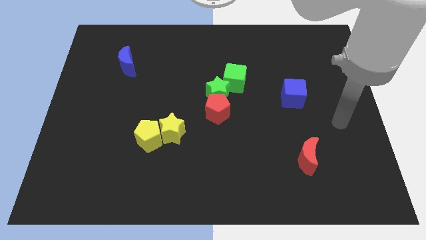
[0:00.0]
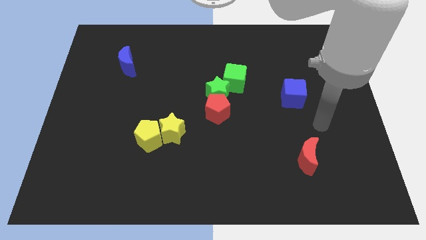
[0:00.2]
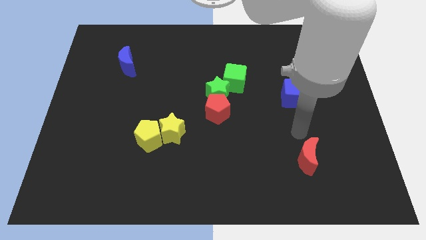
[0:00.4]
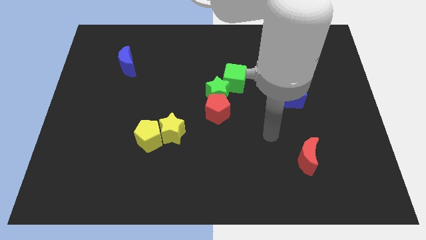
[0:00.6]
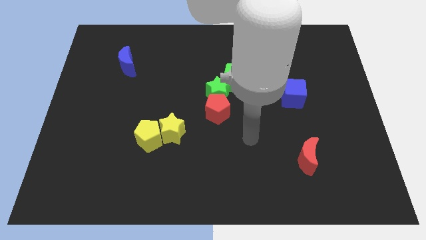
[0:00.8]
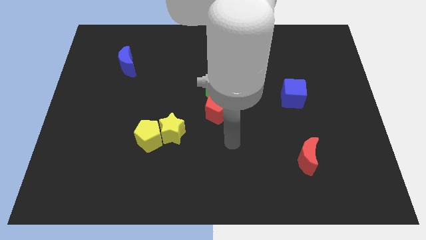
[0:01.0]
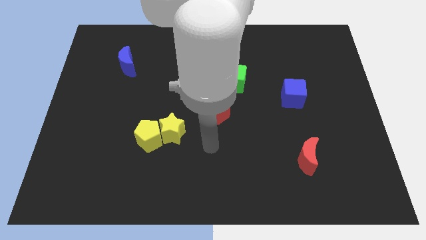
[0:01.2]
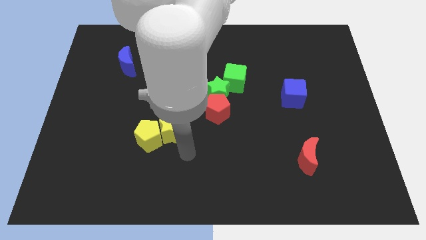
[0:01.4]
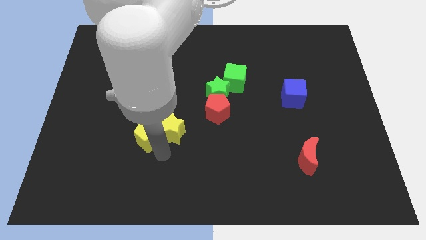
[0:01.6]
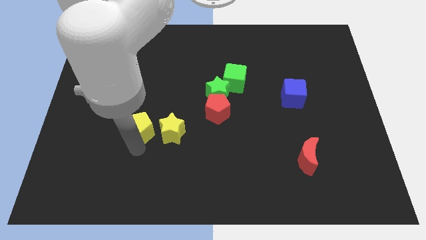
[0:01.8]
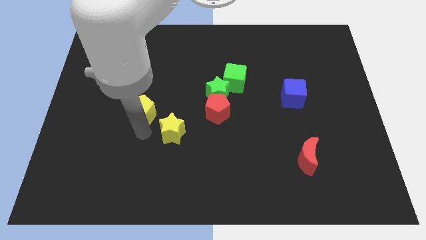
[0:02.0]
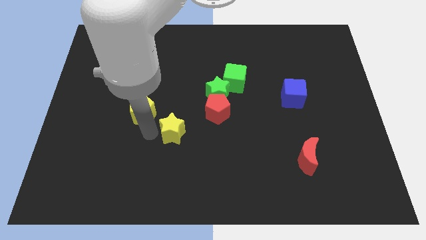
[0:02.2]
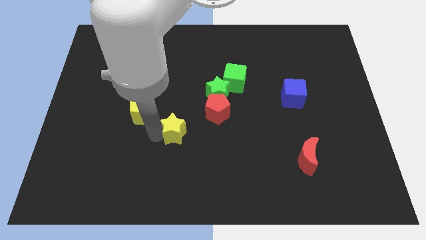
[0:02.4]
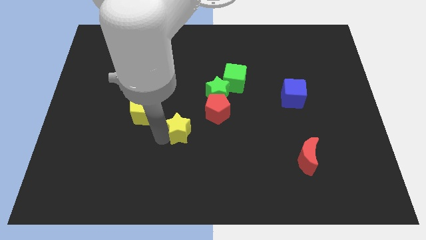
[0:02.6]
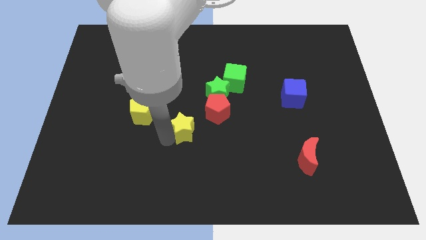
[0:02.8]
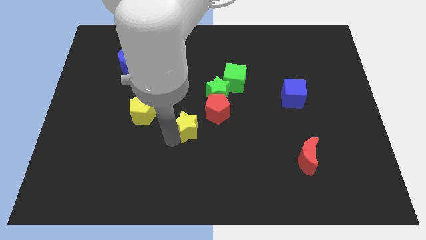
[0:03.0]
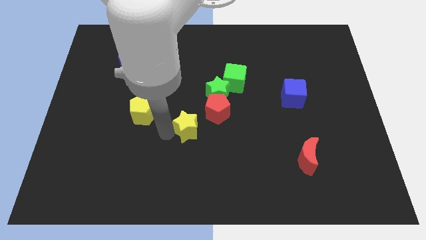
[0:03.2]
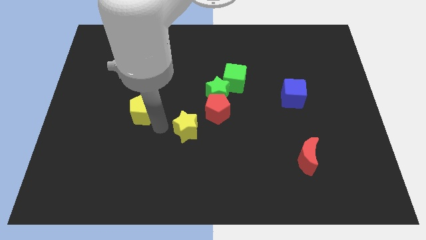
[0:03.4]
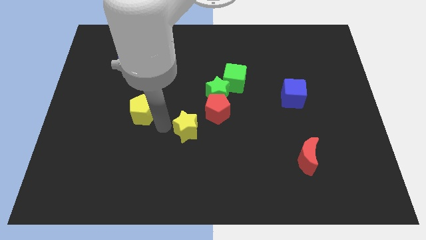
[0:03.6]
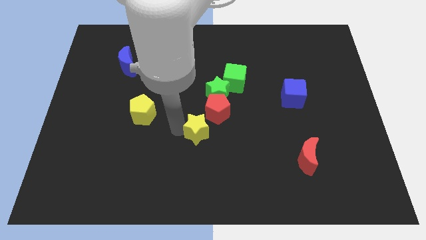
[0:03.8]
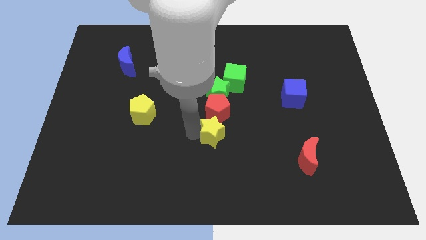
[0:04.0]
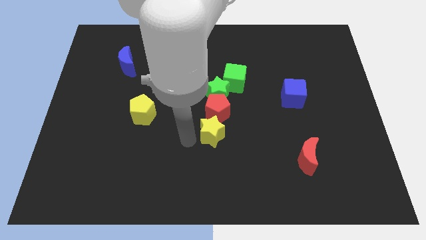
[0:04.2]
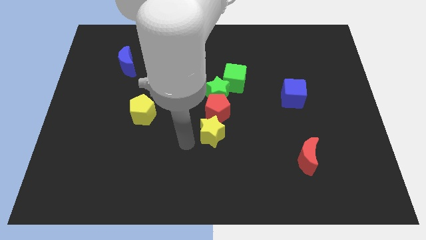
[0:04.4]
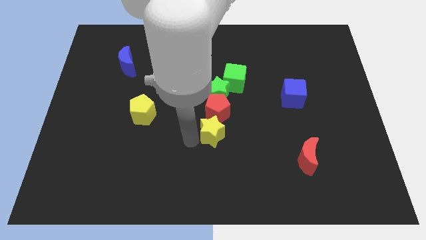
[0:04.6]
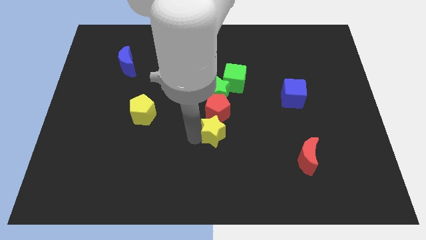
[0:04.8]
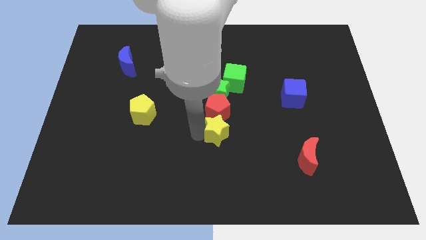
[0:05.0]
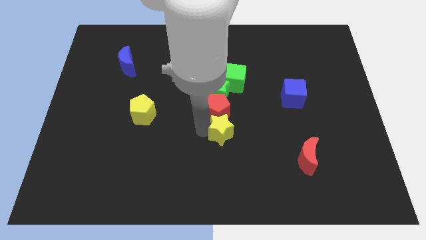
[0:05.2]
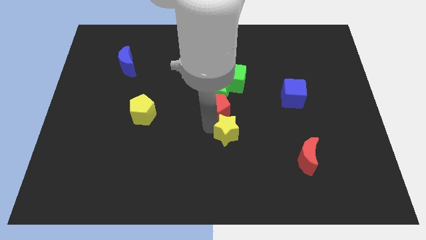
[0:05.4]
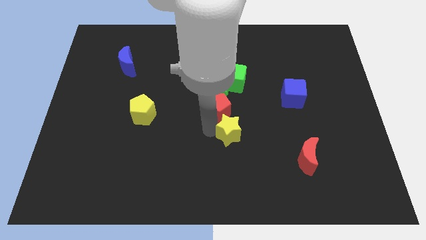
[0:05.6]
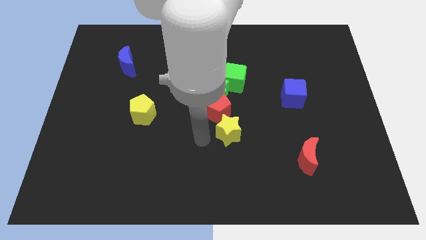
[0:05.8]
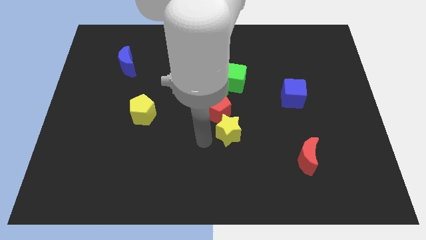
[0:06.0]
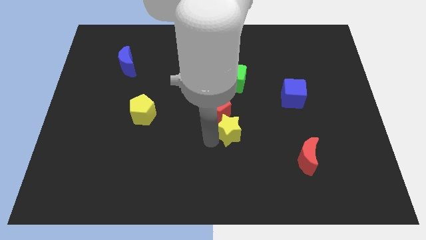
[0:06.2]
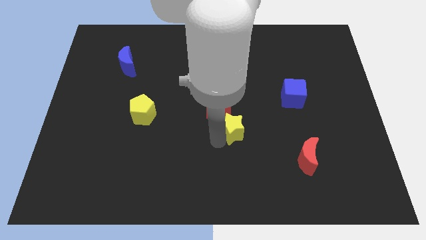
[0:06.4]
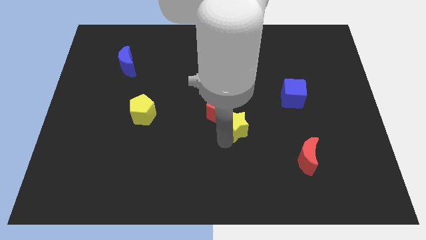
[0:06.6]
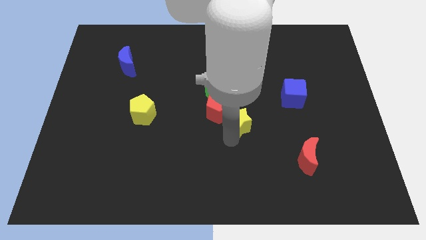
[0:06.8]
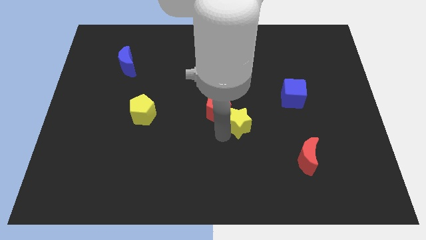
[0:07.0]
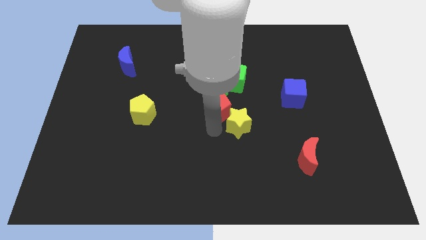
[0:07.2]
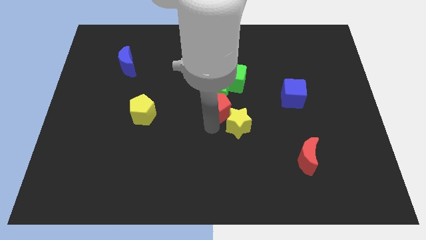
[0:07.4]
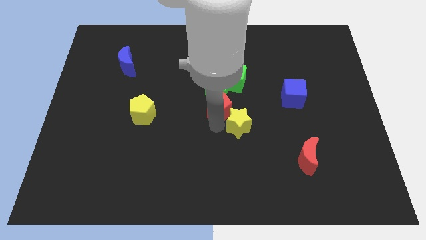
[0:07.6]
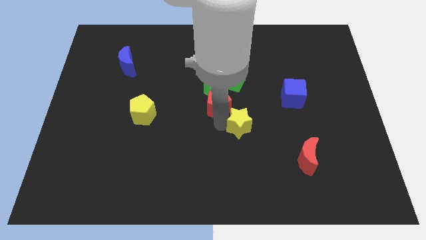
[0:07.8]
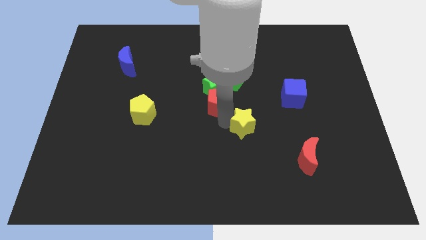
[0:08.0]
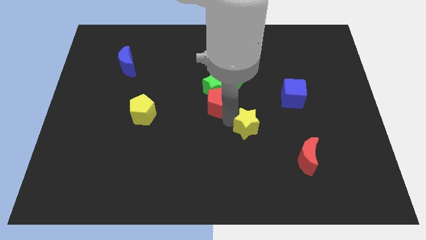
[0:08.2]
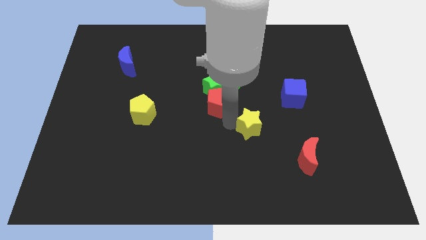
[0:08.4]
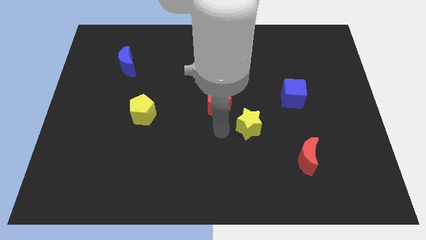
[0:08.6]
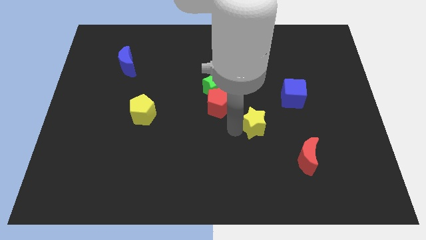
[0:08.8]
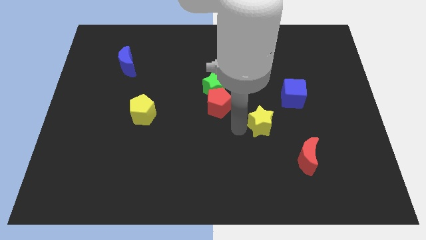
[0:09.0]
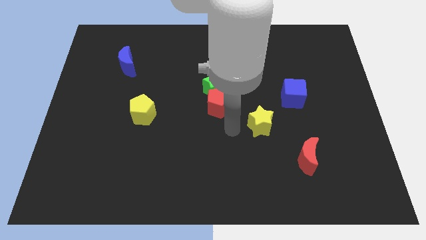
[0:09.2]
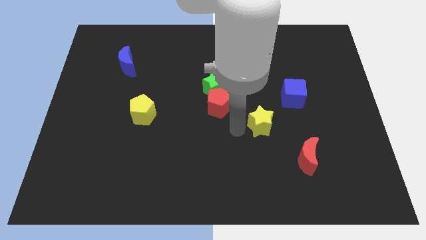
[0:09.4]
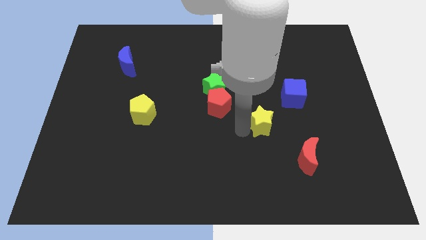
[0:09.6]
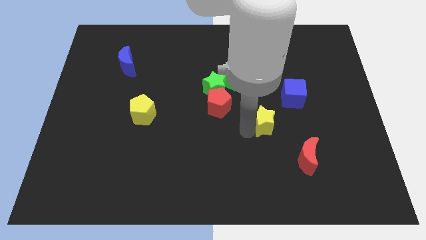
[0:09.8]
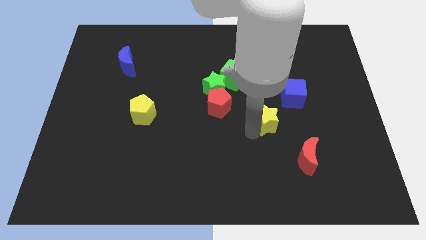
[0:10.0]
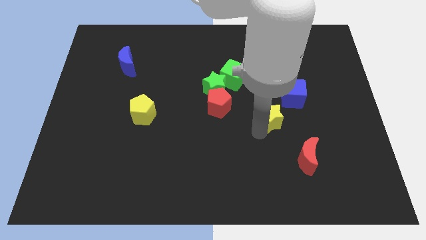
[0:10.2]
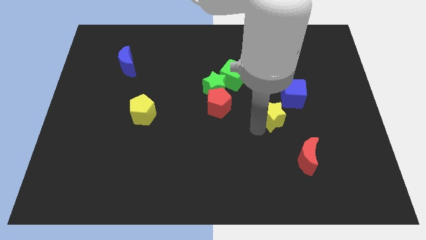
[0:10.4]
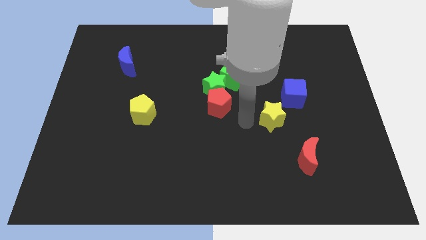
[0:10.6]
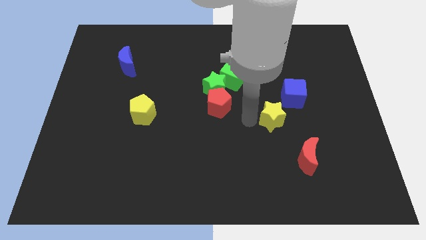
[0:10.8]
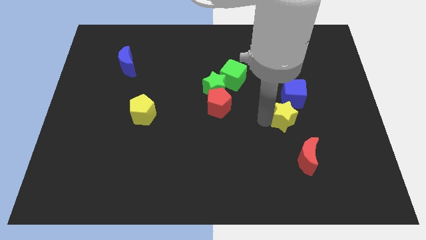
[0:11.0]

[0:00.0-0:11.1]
slide the yellow star above the red moon

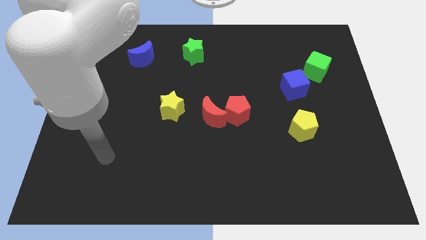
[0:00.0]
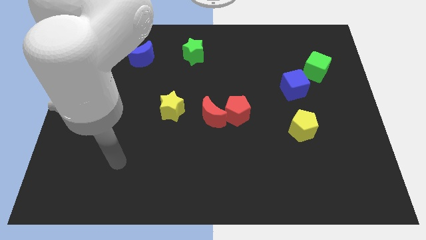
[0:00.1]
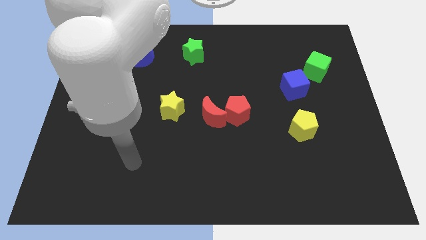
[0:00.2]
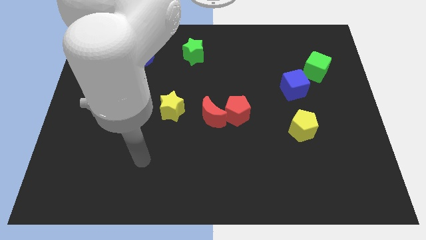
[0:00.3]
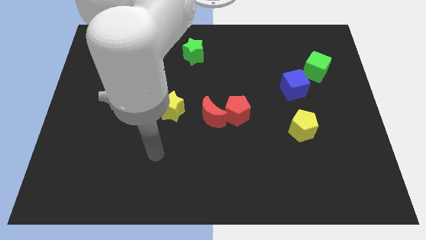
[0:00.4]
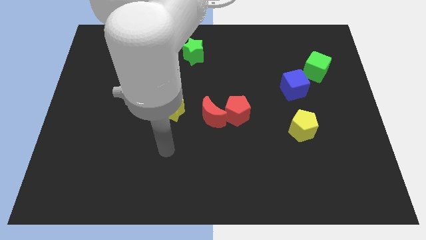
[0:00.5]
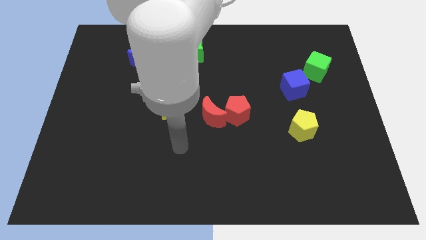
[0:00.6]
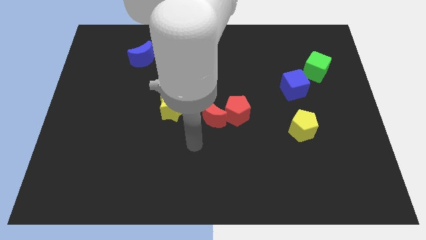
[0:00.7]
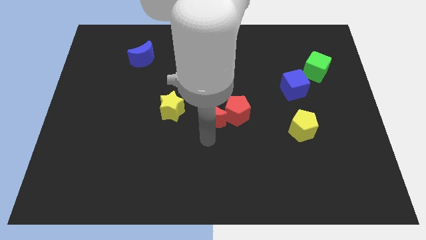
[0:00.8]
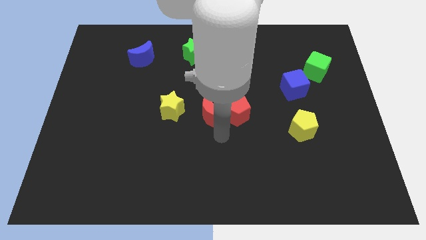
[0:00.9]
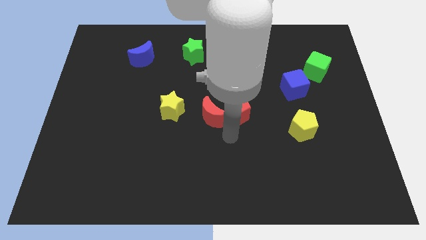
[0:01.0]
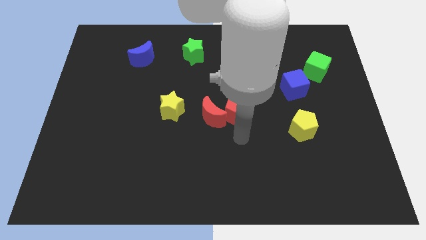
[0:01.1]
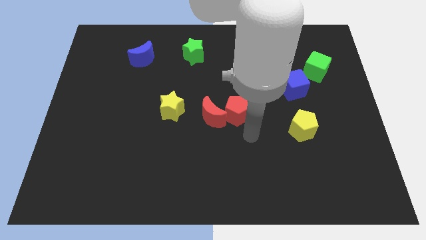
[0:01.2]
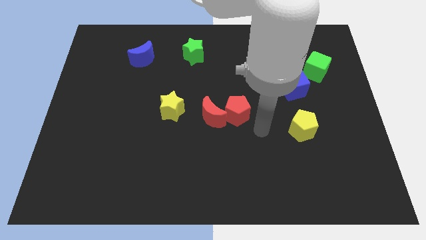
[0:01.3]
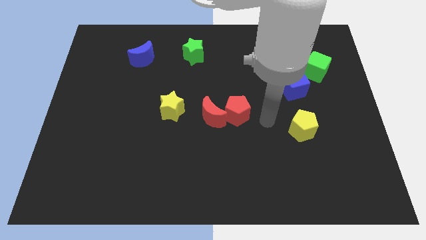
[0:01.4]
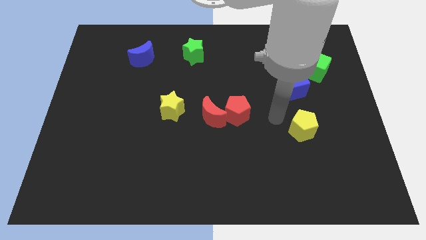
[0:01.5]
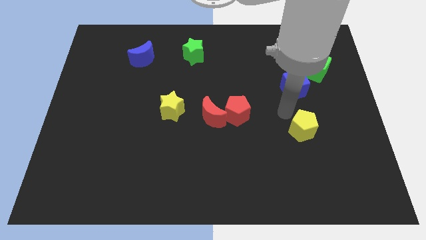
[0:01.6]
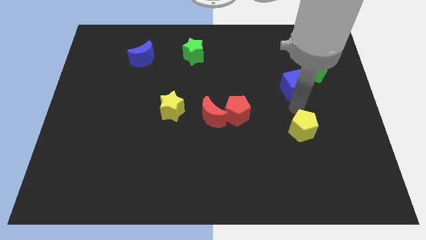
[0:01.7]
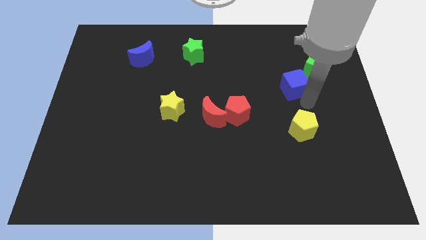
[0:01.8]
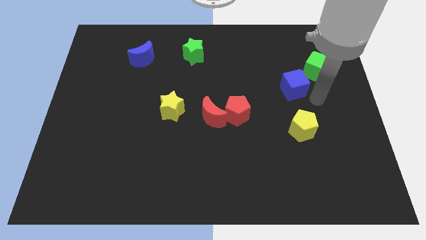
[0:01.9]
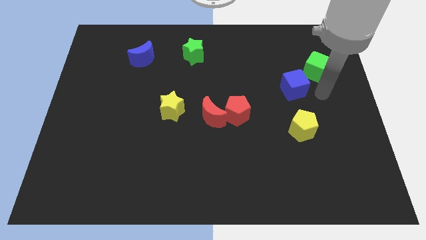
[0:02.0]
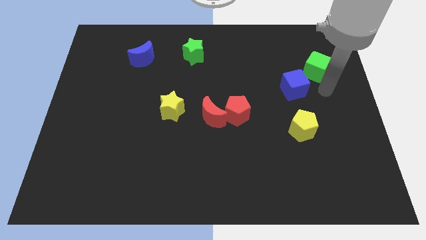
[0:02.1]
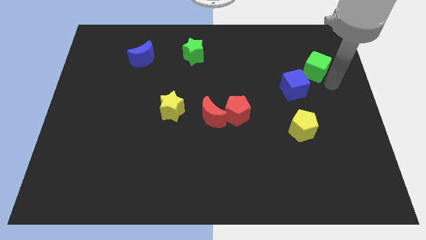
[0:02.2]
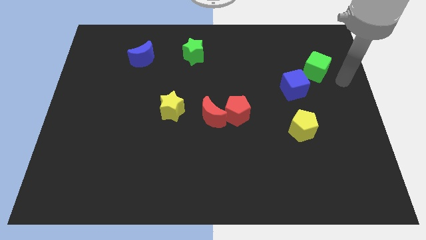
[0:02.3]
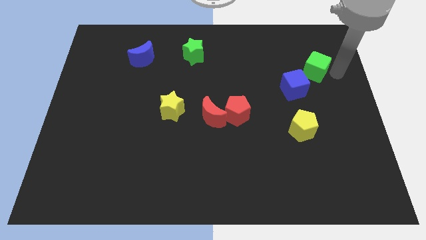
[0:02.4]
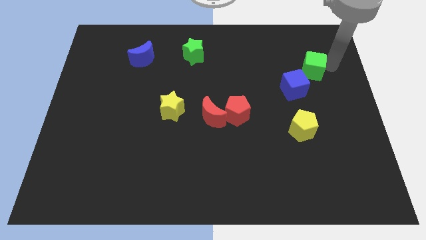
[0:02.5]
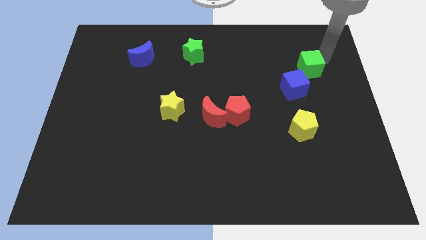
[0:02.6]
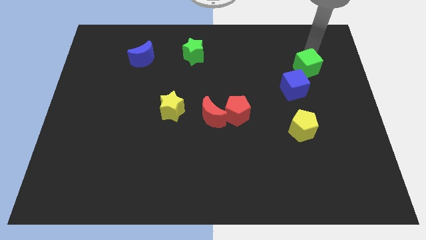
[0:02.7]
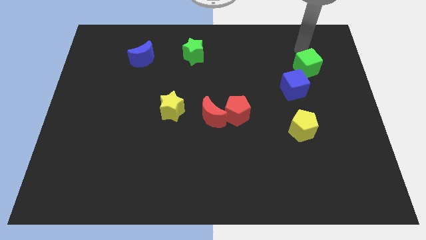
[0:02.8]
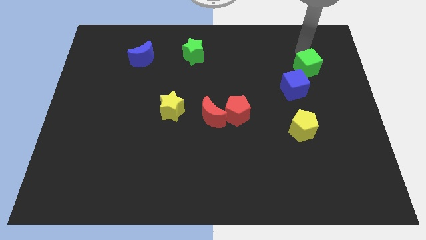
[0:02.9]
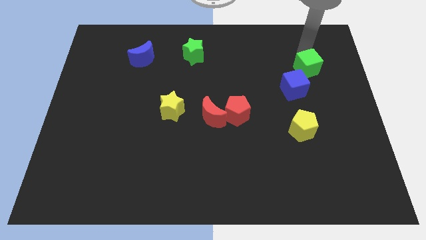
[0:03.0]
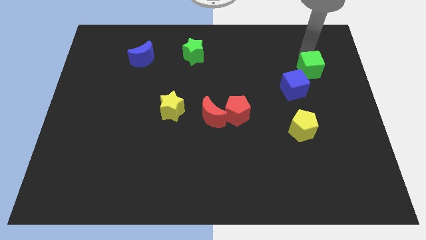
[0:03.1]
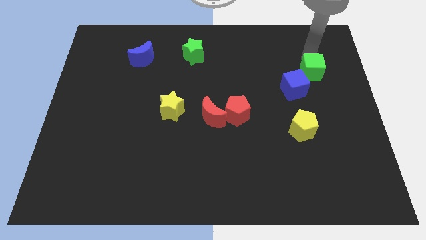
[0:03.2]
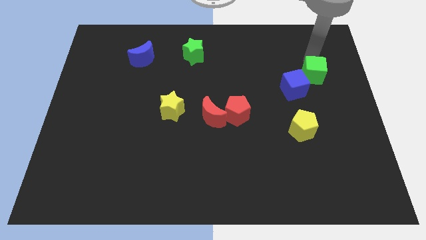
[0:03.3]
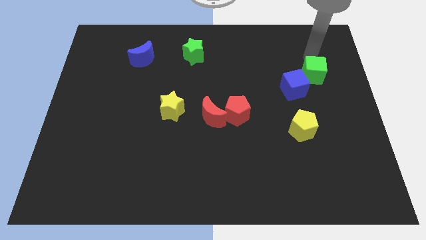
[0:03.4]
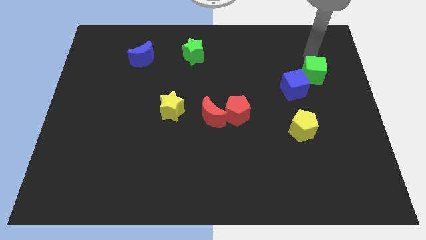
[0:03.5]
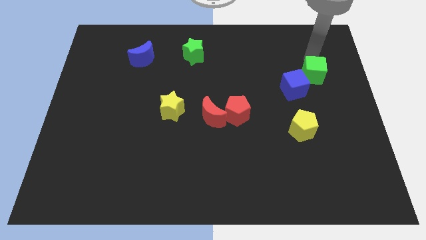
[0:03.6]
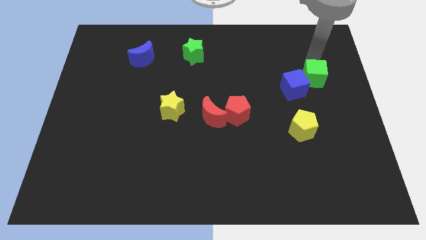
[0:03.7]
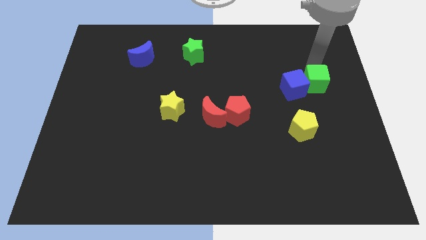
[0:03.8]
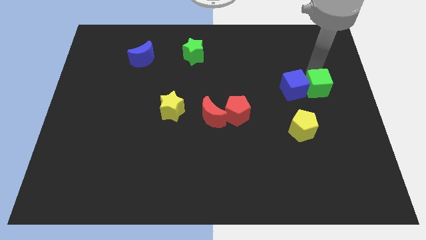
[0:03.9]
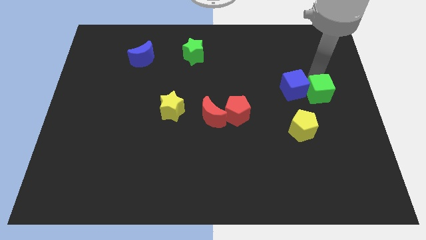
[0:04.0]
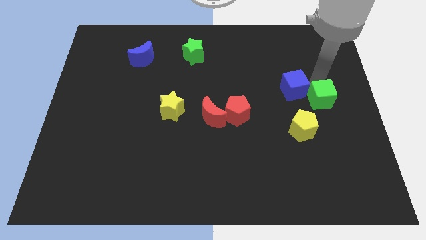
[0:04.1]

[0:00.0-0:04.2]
move the green cube to the top right of the yellow pentagon
